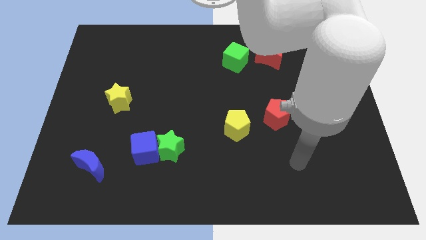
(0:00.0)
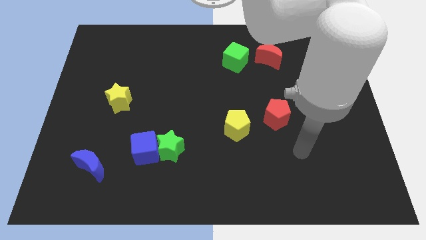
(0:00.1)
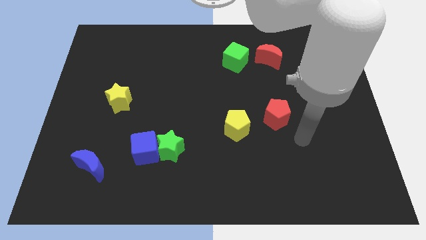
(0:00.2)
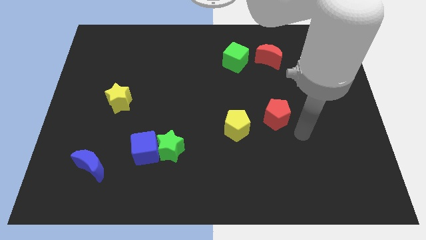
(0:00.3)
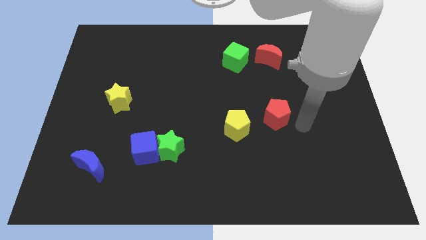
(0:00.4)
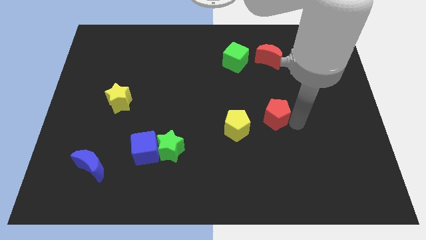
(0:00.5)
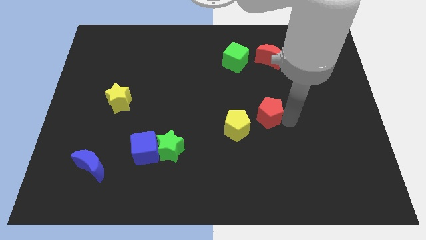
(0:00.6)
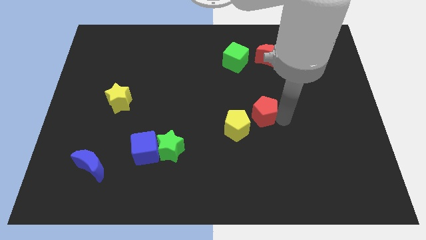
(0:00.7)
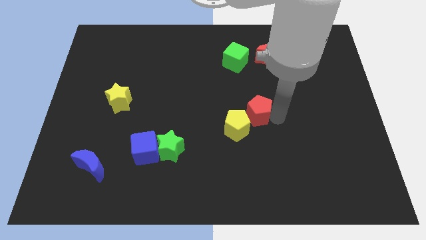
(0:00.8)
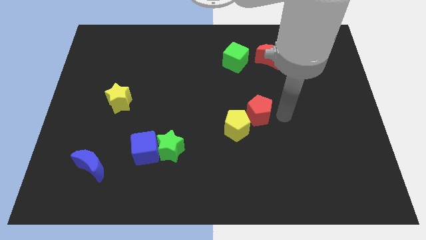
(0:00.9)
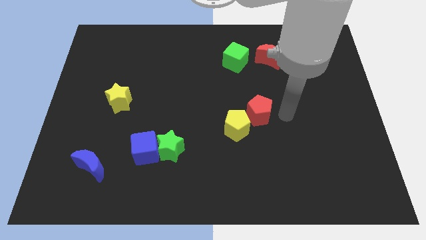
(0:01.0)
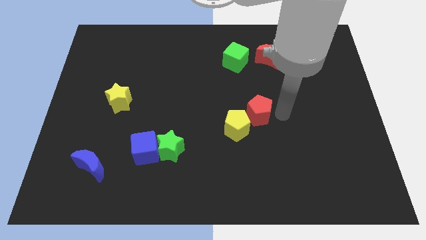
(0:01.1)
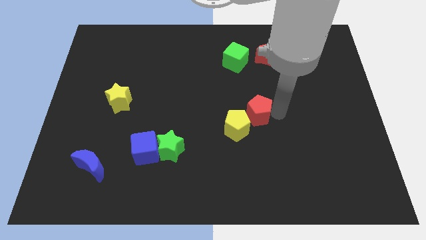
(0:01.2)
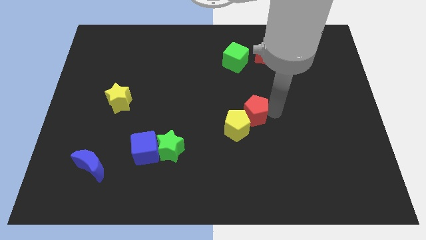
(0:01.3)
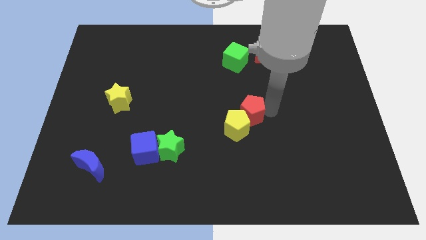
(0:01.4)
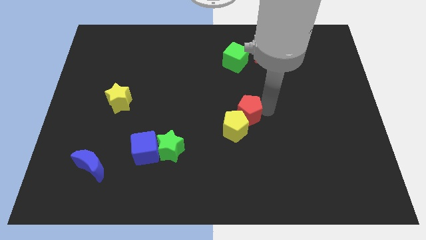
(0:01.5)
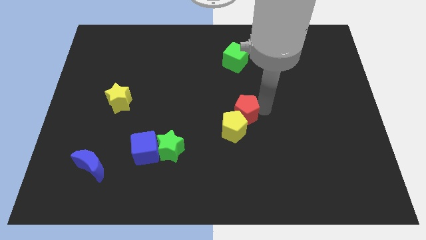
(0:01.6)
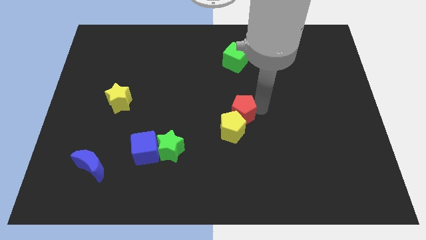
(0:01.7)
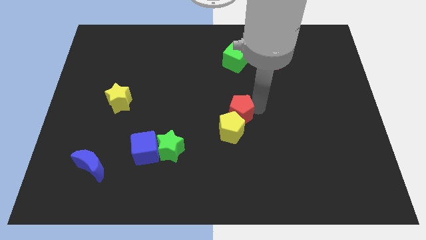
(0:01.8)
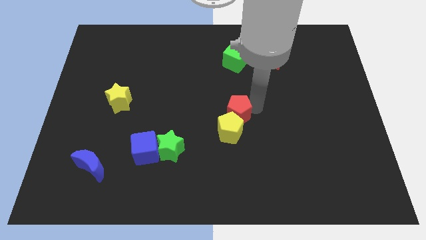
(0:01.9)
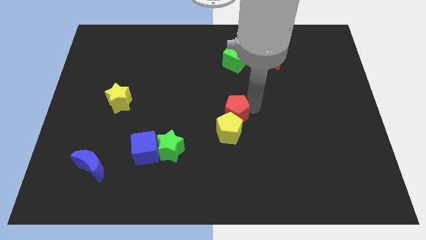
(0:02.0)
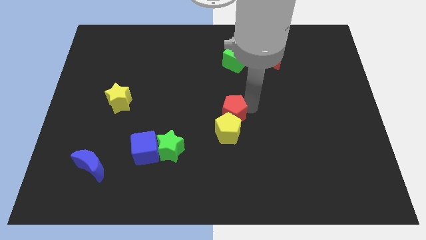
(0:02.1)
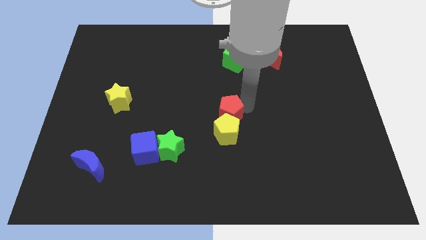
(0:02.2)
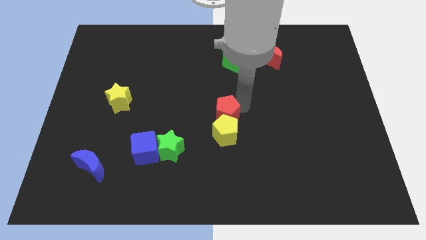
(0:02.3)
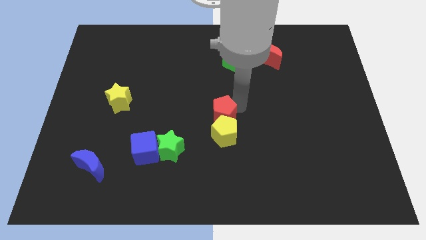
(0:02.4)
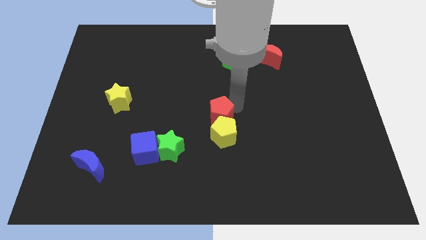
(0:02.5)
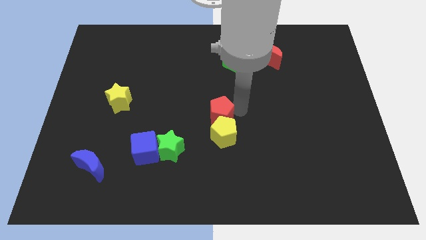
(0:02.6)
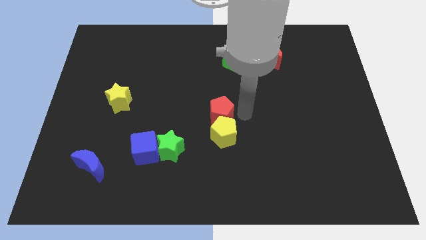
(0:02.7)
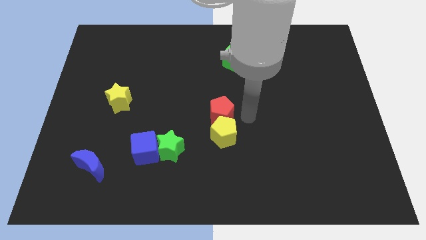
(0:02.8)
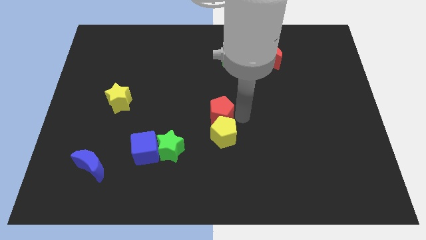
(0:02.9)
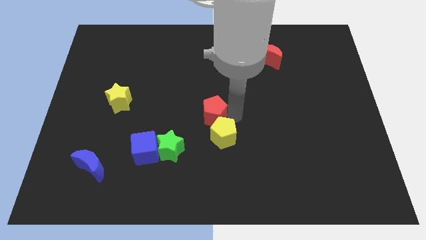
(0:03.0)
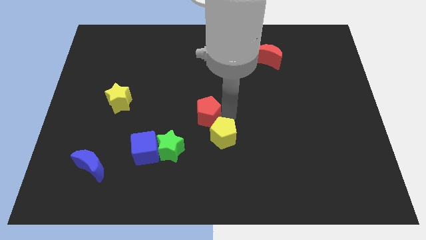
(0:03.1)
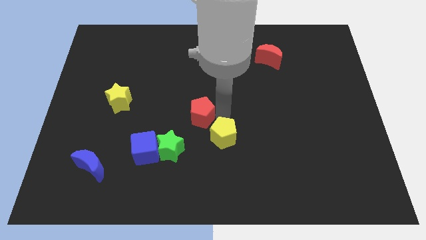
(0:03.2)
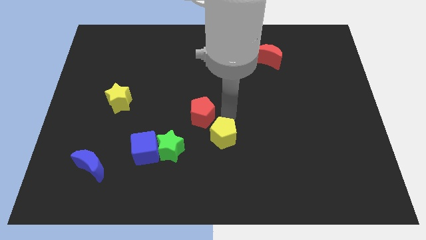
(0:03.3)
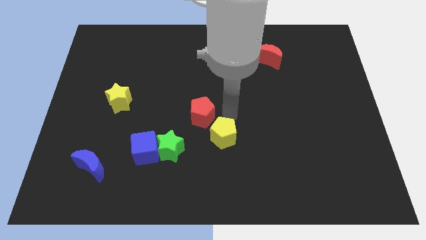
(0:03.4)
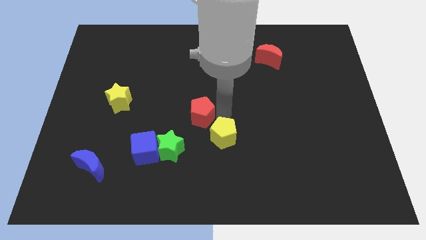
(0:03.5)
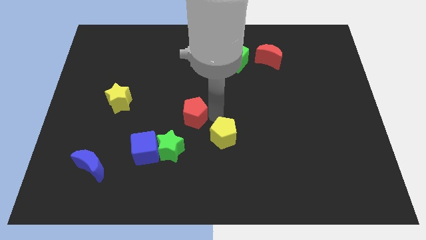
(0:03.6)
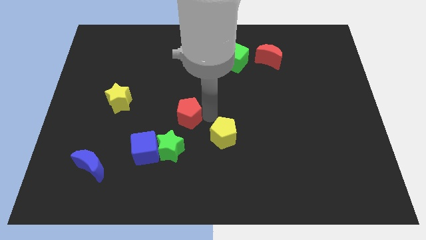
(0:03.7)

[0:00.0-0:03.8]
move the red pentagon to the left

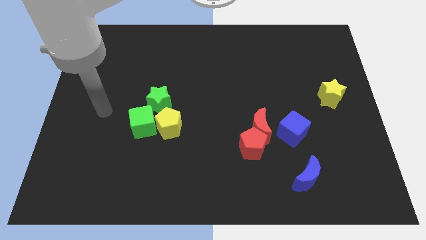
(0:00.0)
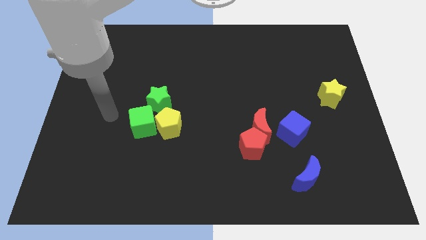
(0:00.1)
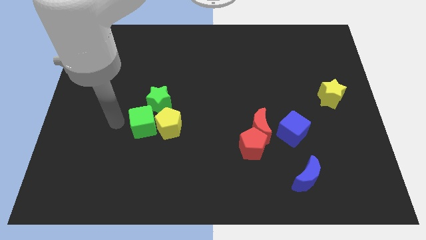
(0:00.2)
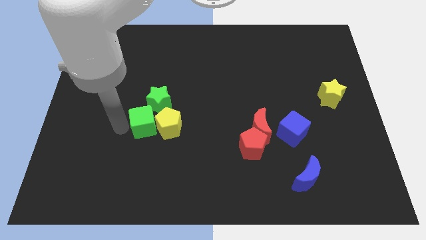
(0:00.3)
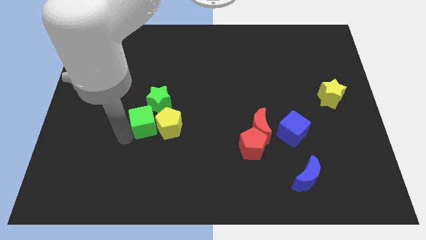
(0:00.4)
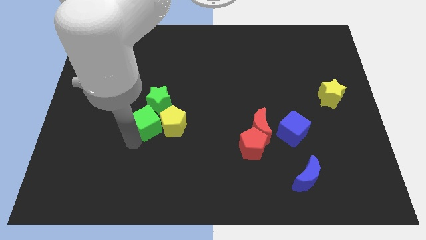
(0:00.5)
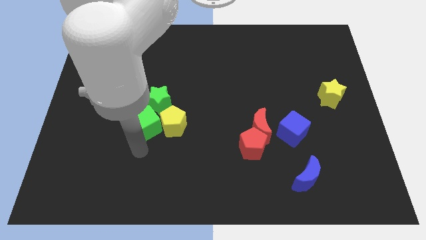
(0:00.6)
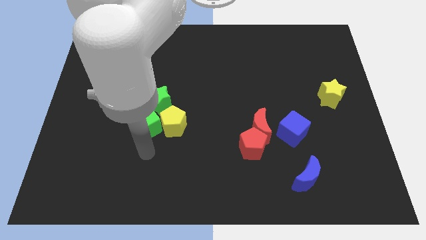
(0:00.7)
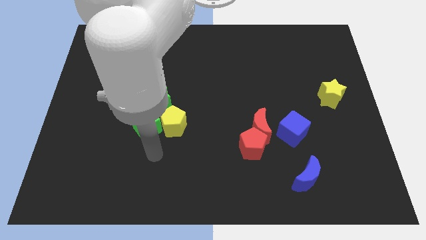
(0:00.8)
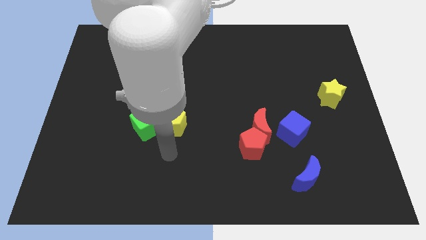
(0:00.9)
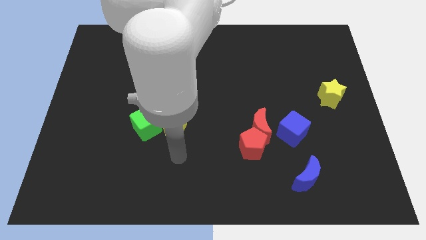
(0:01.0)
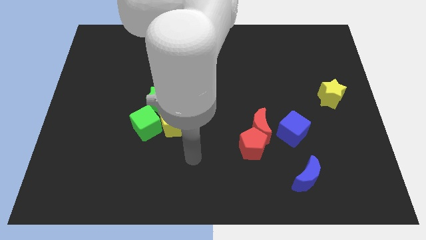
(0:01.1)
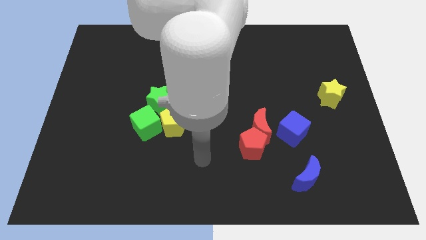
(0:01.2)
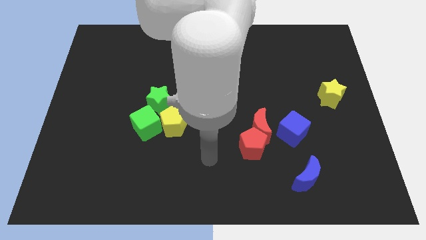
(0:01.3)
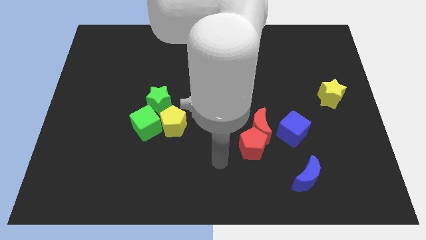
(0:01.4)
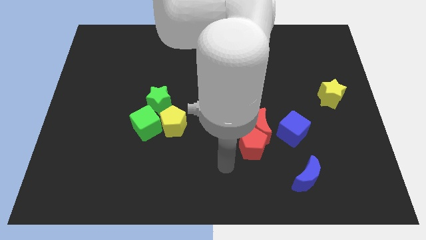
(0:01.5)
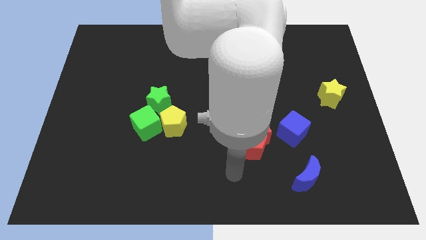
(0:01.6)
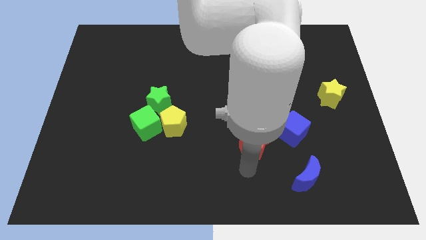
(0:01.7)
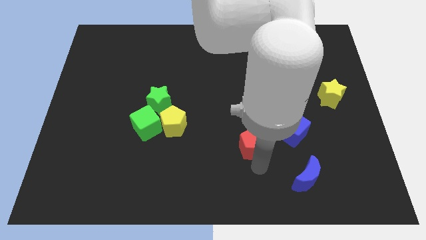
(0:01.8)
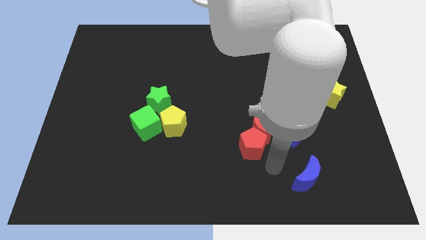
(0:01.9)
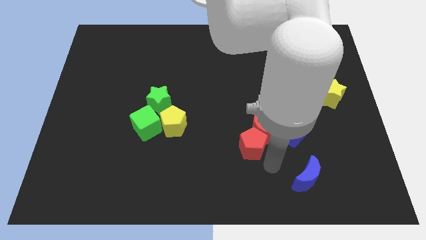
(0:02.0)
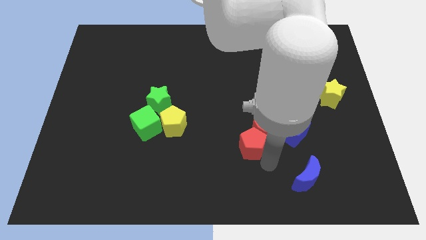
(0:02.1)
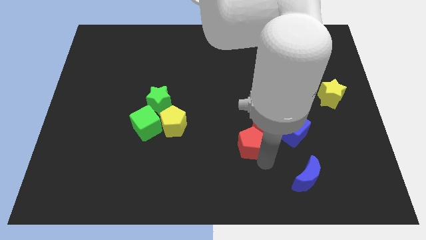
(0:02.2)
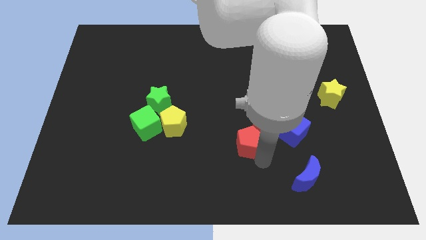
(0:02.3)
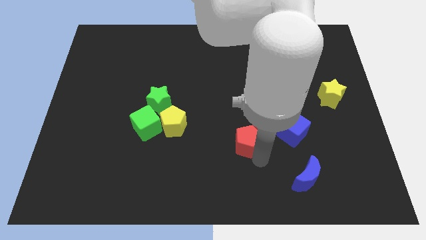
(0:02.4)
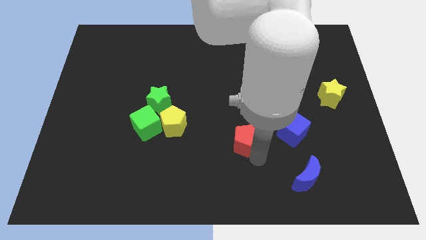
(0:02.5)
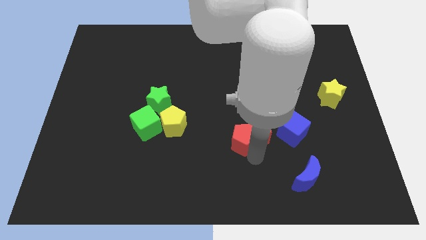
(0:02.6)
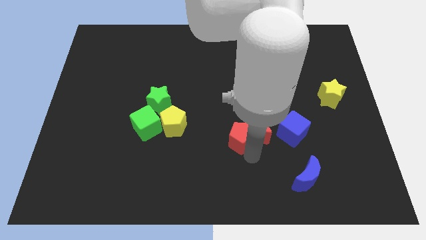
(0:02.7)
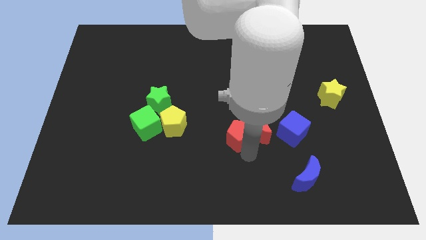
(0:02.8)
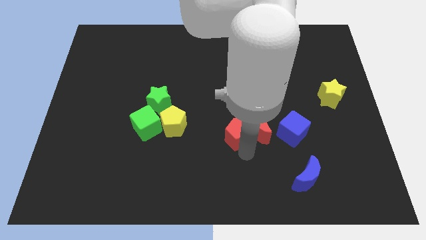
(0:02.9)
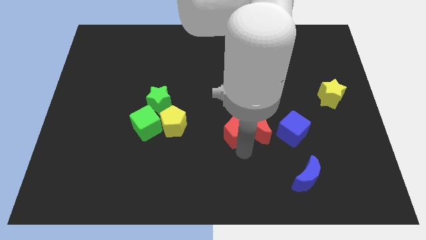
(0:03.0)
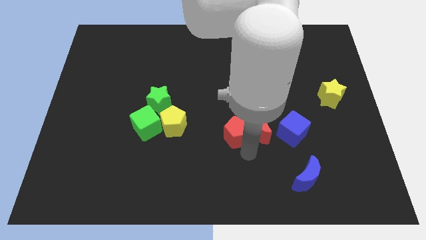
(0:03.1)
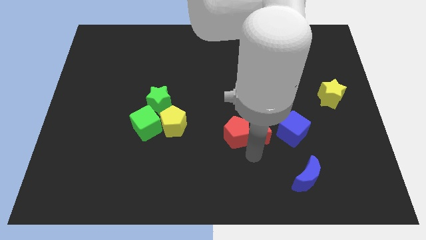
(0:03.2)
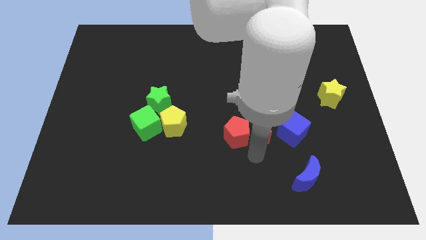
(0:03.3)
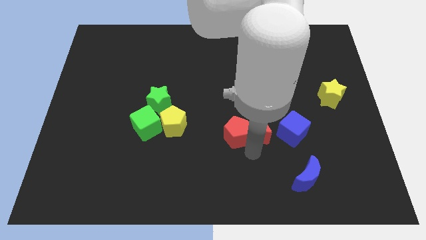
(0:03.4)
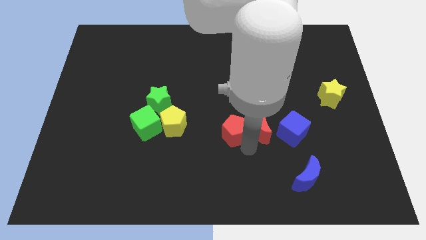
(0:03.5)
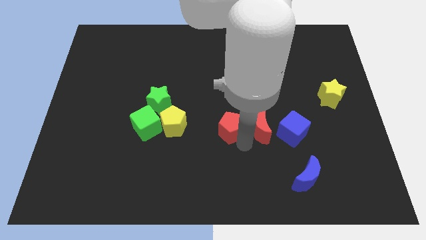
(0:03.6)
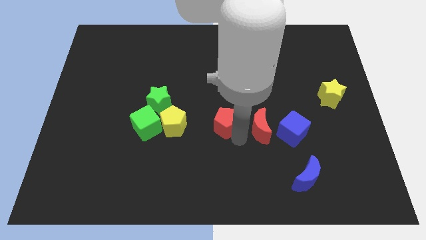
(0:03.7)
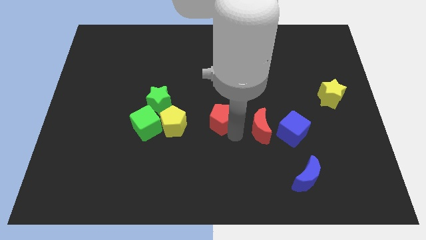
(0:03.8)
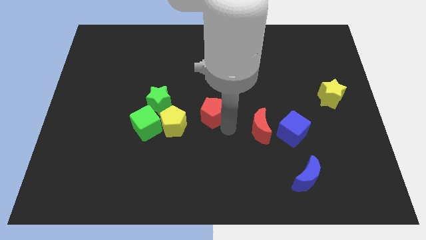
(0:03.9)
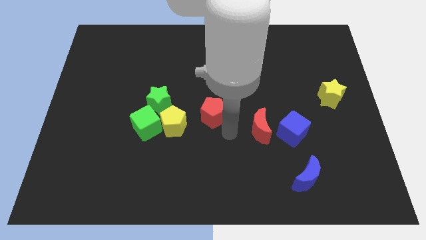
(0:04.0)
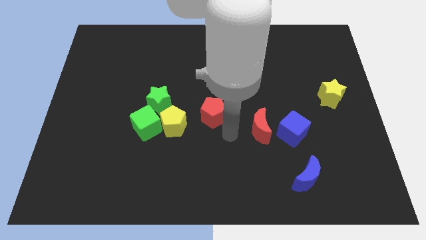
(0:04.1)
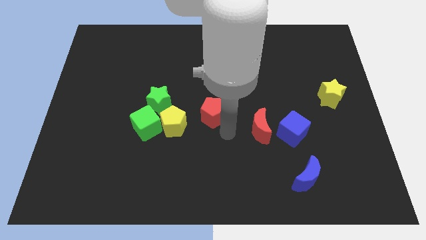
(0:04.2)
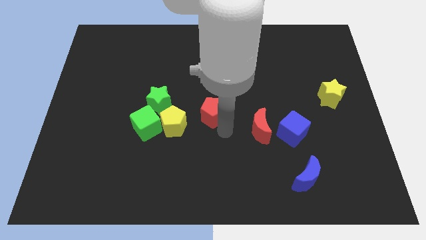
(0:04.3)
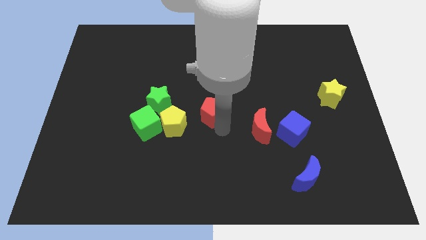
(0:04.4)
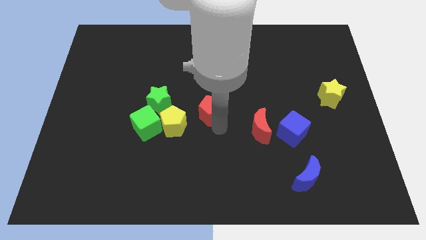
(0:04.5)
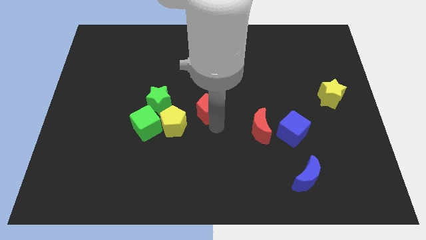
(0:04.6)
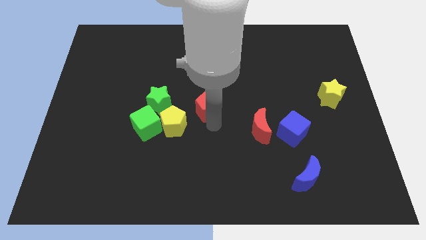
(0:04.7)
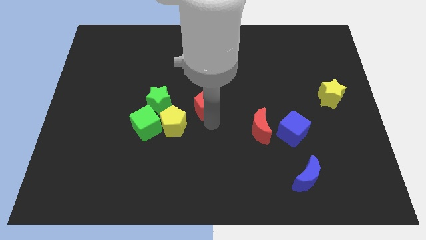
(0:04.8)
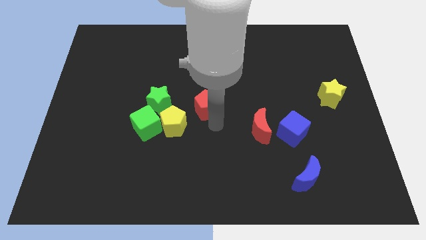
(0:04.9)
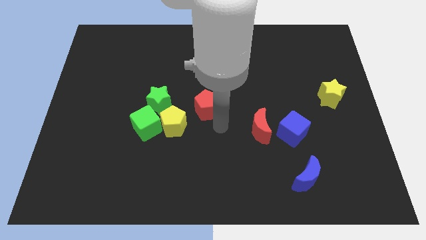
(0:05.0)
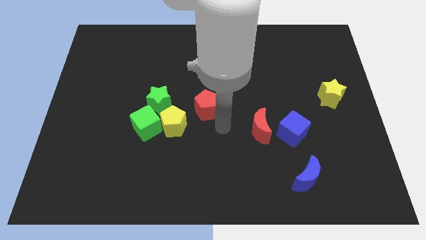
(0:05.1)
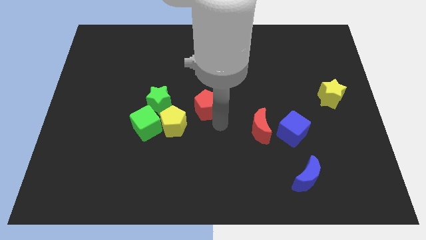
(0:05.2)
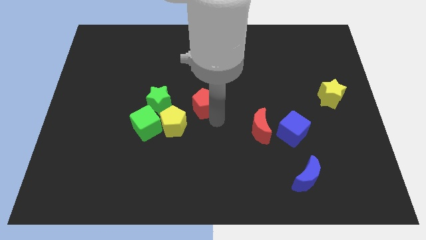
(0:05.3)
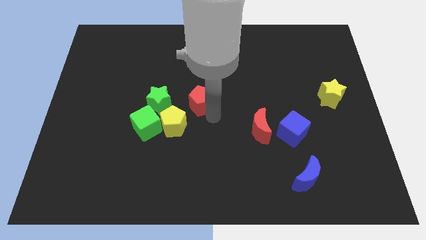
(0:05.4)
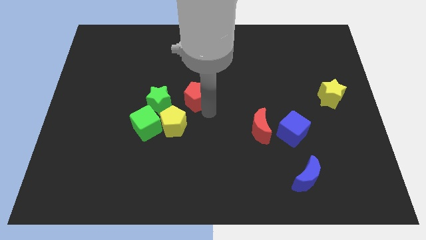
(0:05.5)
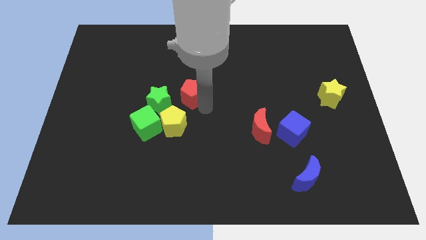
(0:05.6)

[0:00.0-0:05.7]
slide the red pentagon upwards and then to the left
